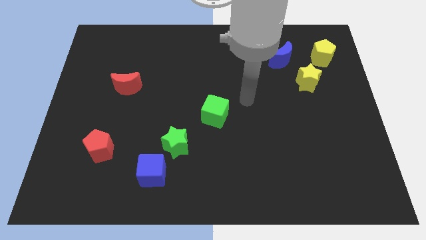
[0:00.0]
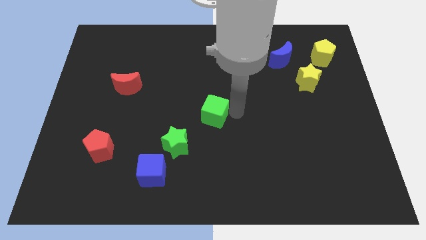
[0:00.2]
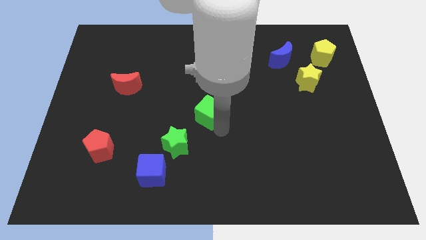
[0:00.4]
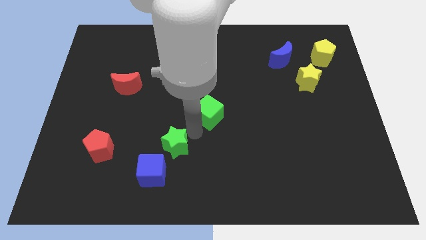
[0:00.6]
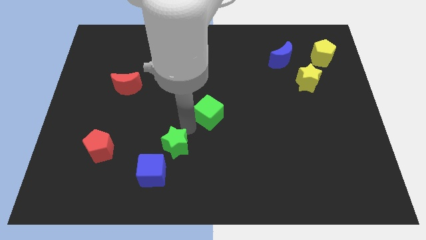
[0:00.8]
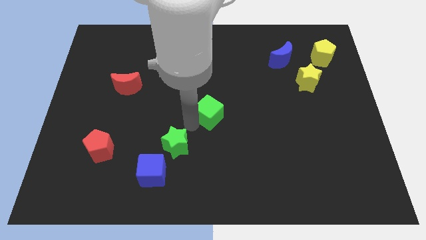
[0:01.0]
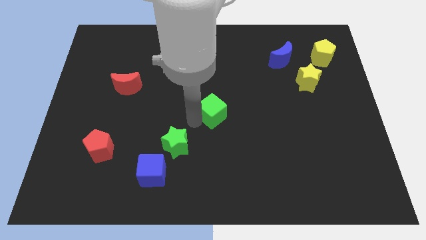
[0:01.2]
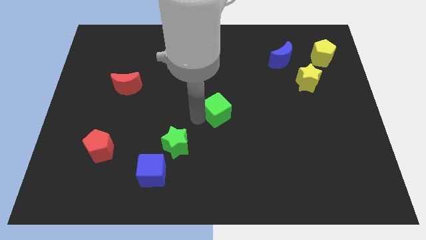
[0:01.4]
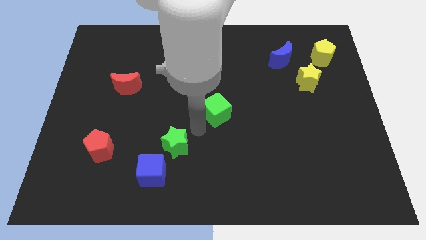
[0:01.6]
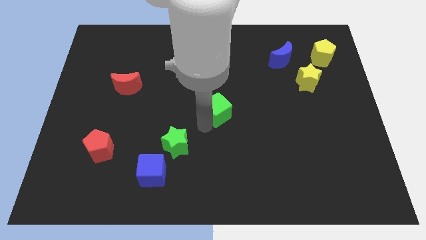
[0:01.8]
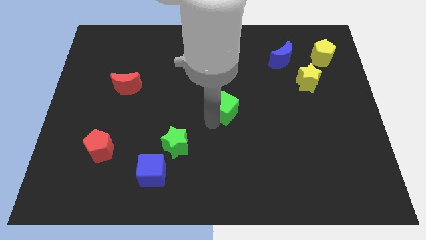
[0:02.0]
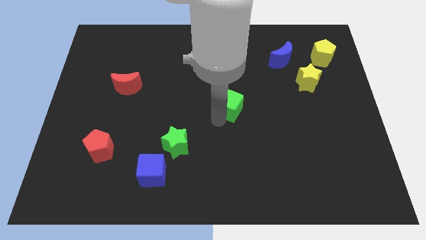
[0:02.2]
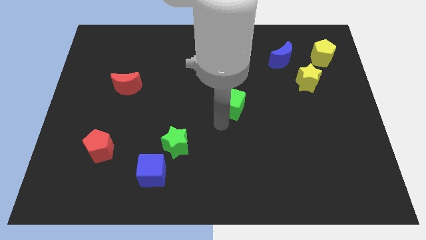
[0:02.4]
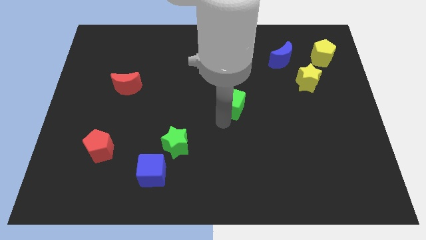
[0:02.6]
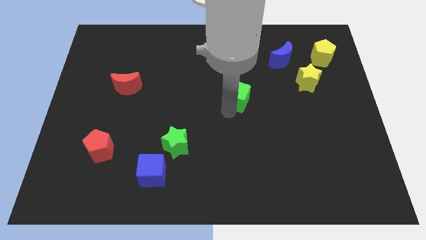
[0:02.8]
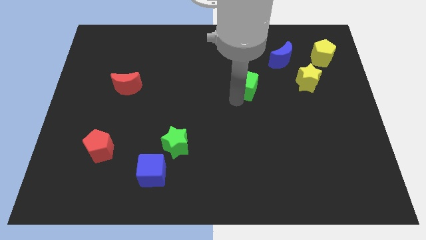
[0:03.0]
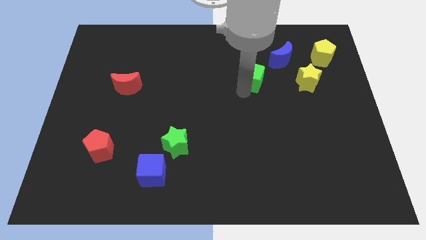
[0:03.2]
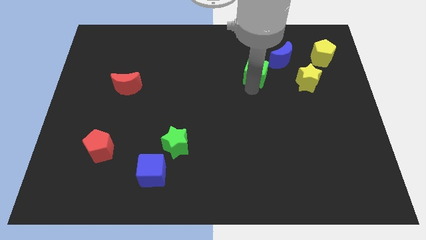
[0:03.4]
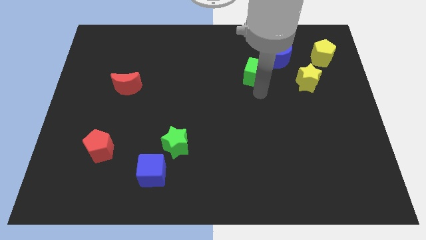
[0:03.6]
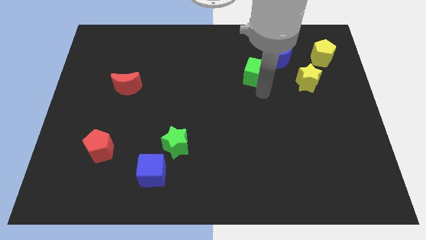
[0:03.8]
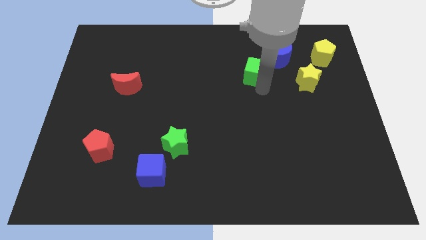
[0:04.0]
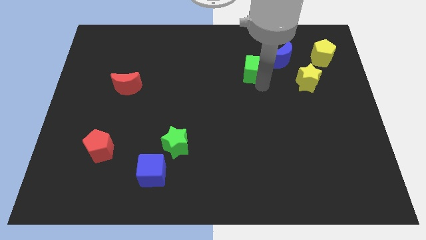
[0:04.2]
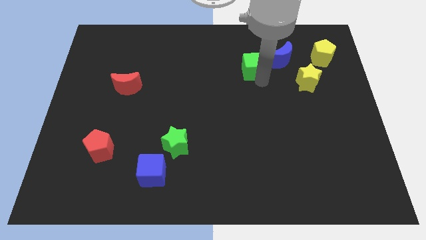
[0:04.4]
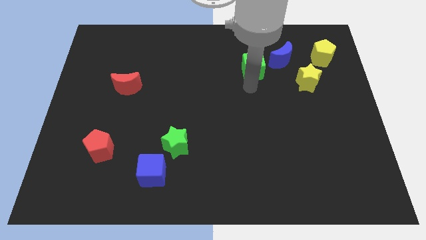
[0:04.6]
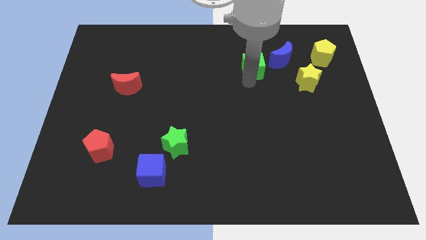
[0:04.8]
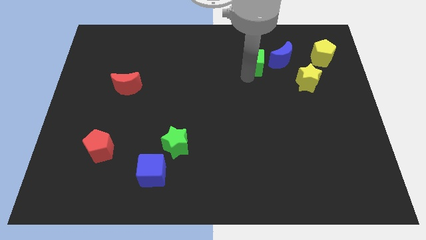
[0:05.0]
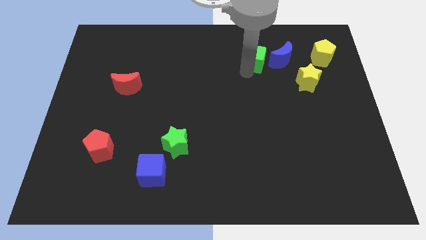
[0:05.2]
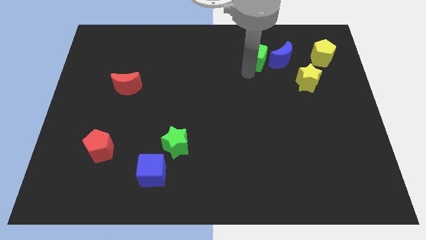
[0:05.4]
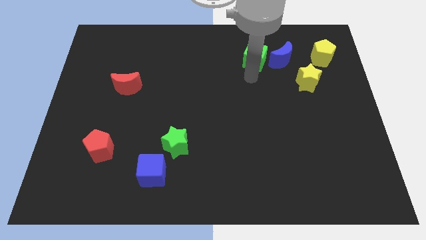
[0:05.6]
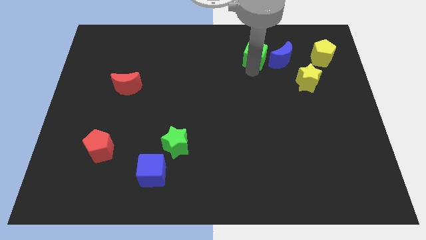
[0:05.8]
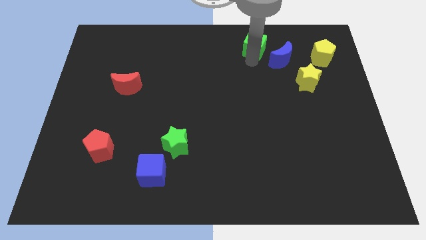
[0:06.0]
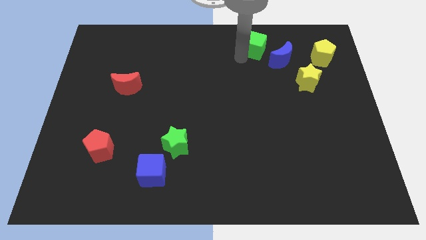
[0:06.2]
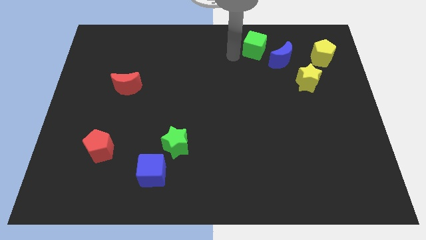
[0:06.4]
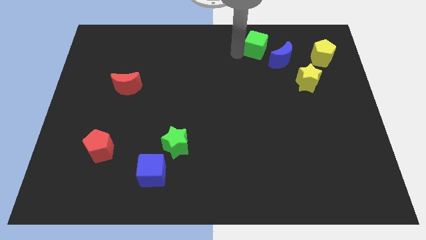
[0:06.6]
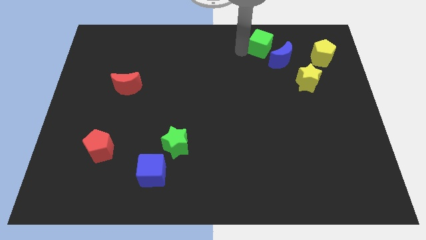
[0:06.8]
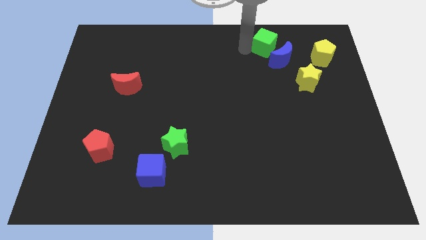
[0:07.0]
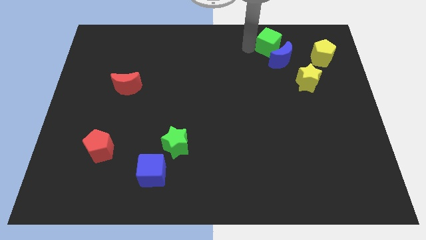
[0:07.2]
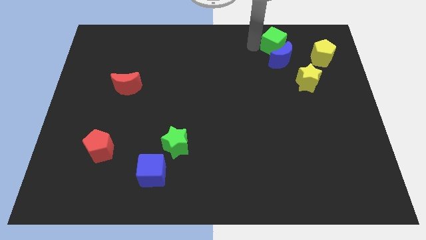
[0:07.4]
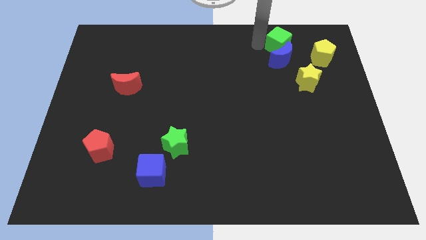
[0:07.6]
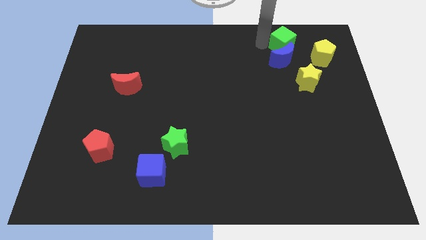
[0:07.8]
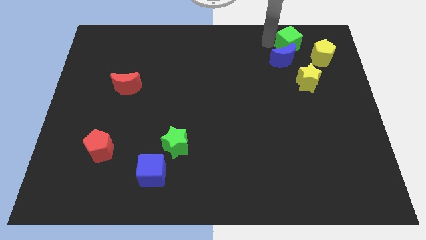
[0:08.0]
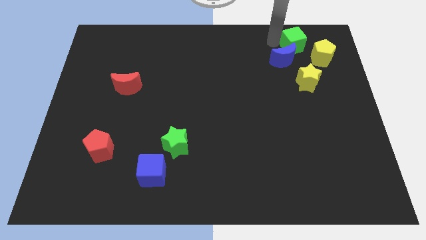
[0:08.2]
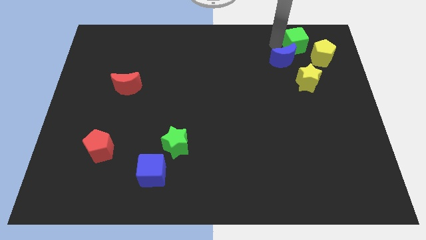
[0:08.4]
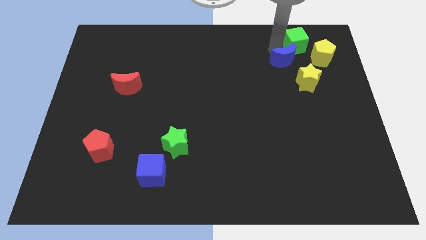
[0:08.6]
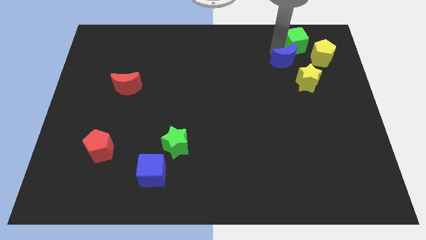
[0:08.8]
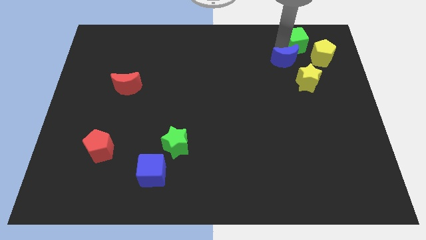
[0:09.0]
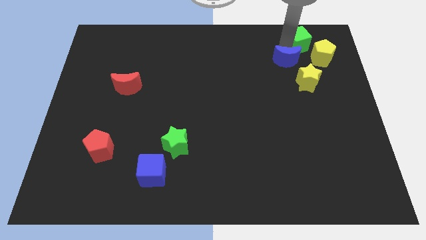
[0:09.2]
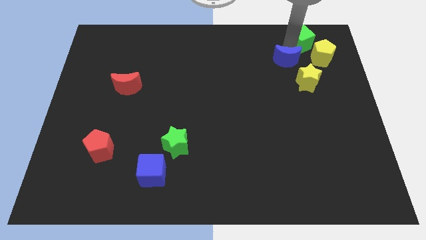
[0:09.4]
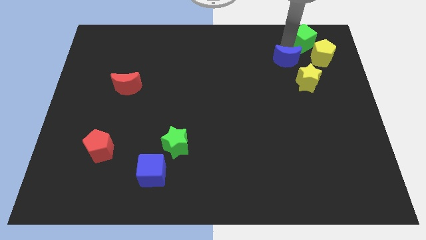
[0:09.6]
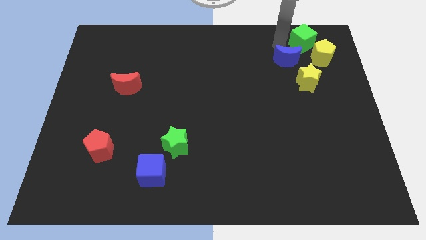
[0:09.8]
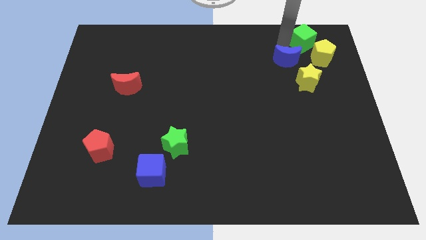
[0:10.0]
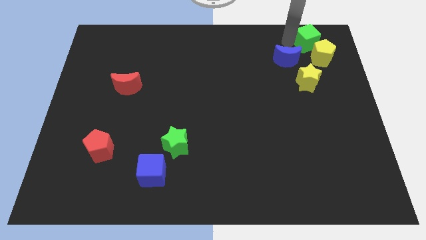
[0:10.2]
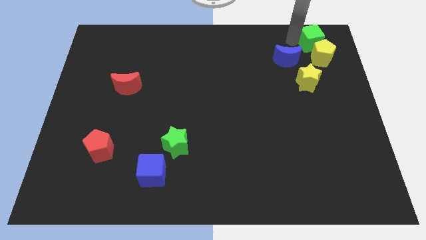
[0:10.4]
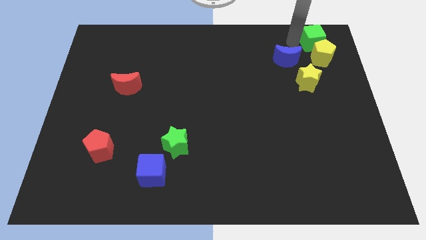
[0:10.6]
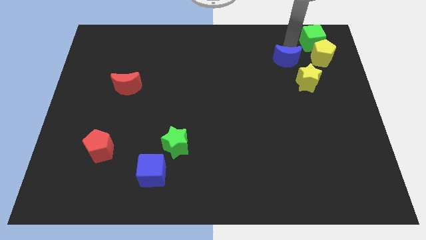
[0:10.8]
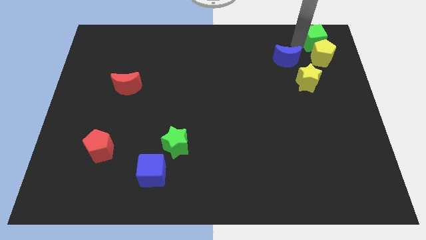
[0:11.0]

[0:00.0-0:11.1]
move the green cube to the top right

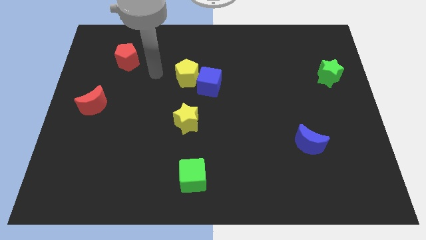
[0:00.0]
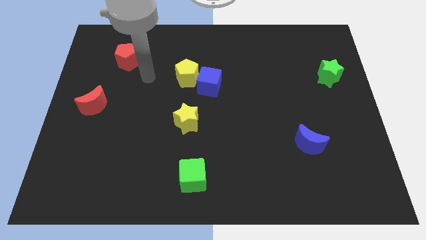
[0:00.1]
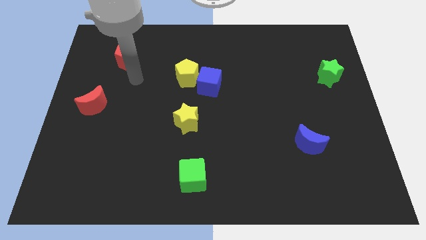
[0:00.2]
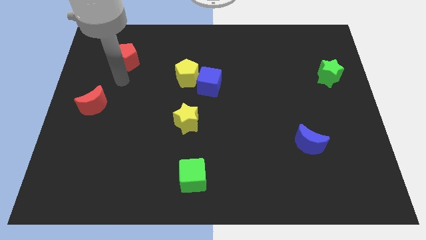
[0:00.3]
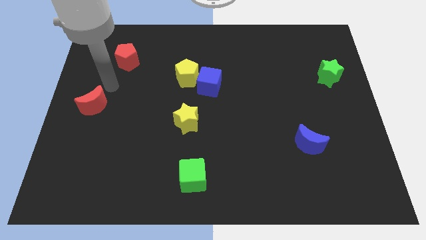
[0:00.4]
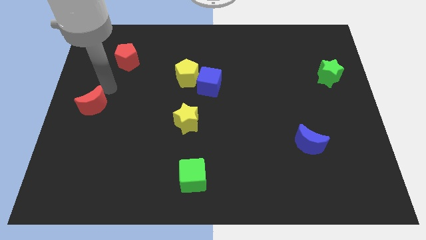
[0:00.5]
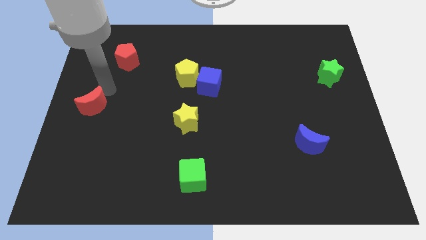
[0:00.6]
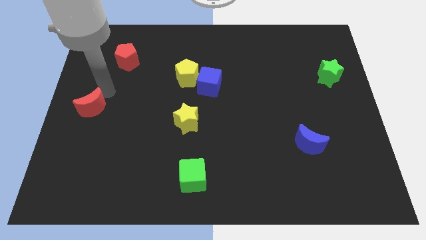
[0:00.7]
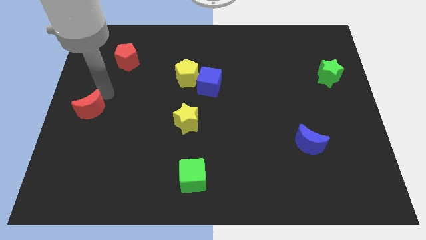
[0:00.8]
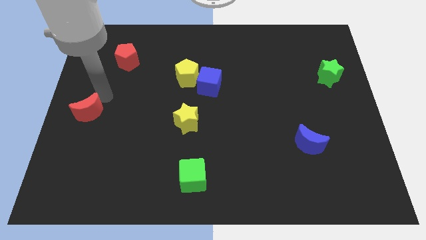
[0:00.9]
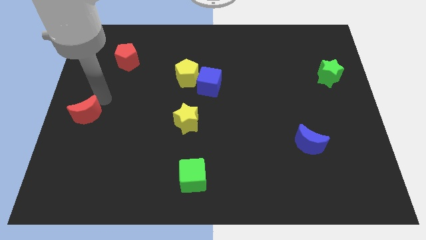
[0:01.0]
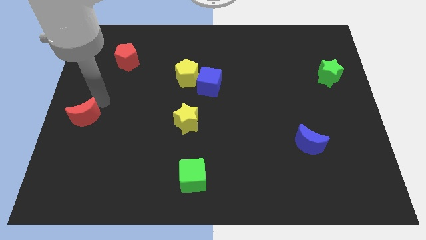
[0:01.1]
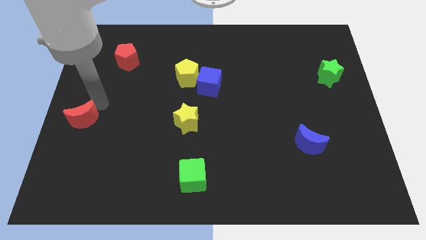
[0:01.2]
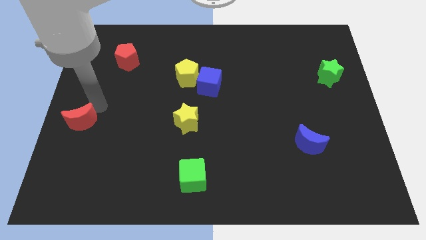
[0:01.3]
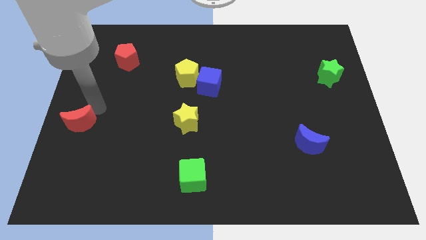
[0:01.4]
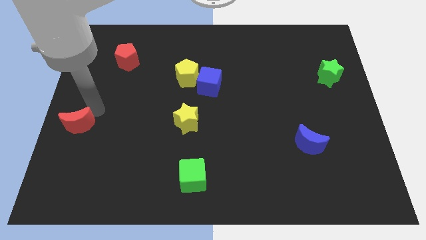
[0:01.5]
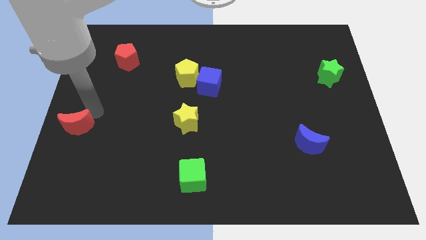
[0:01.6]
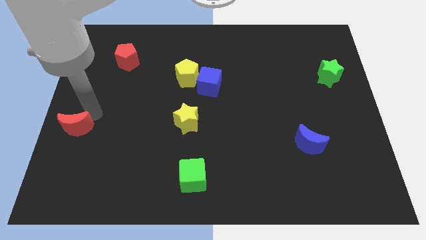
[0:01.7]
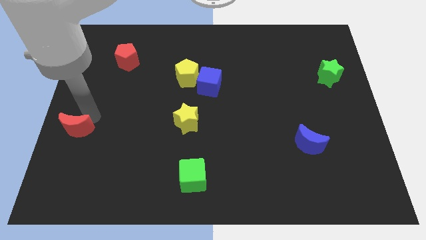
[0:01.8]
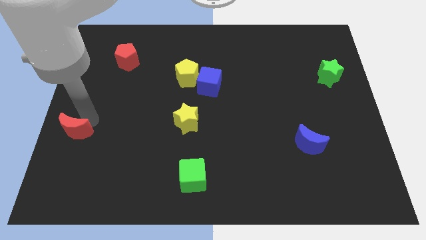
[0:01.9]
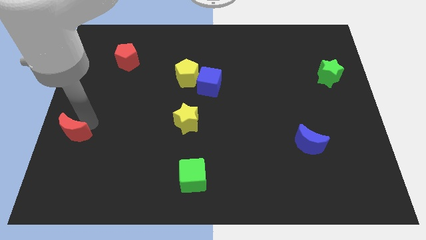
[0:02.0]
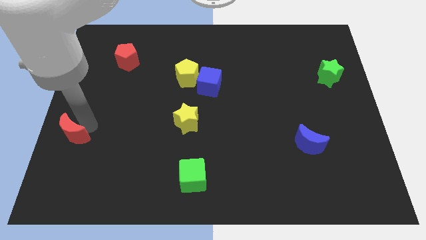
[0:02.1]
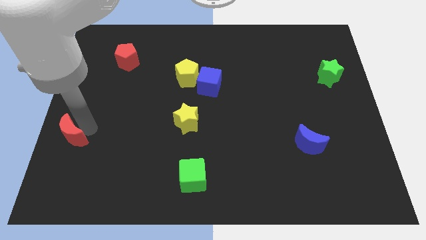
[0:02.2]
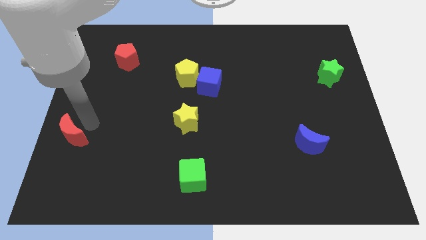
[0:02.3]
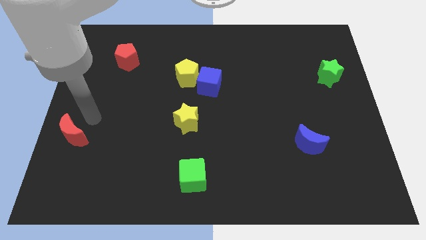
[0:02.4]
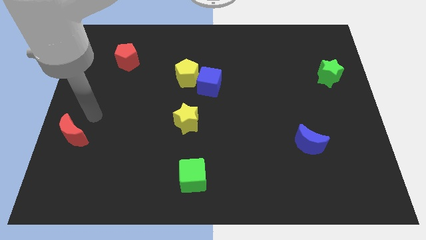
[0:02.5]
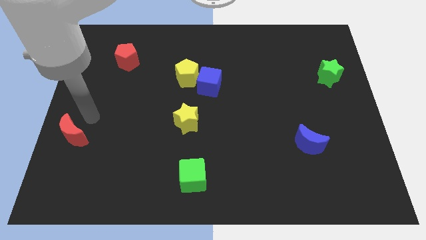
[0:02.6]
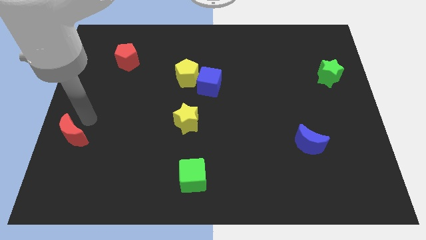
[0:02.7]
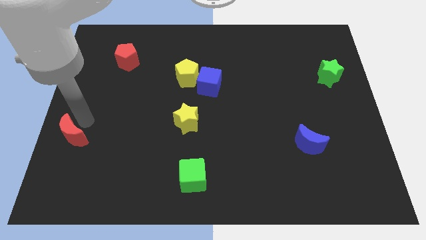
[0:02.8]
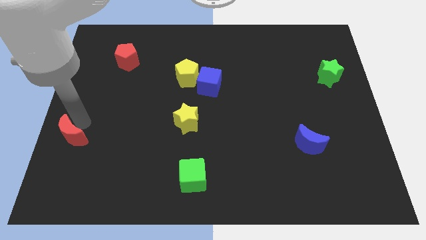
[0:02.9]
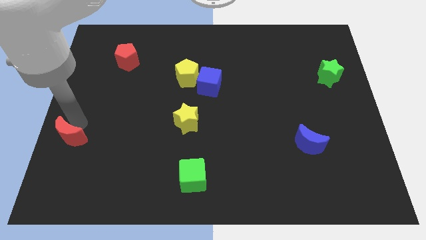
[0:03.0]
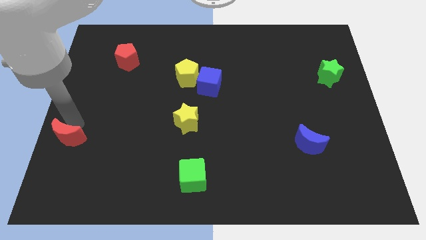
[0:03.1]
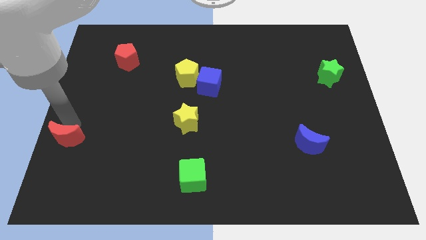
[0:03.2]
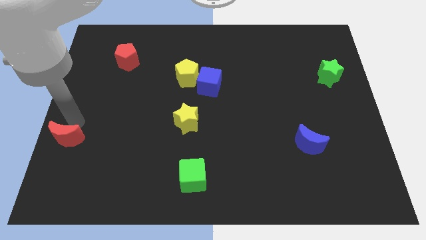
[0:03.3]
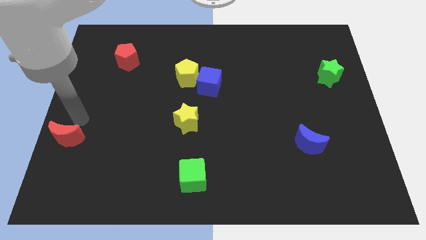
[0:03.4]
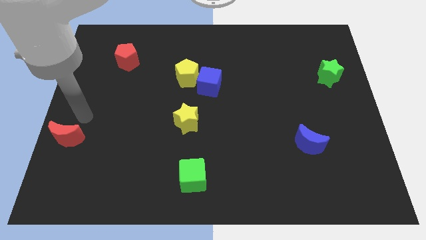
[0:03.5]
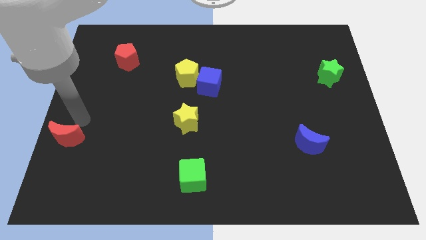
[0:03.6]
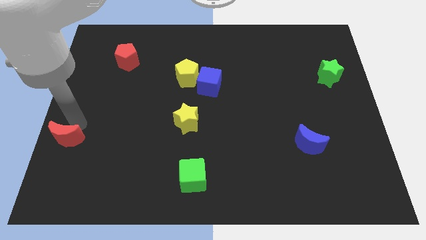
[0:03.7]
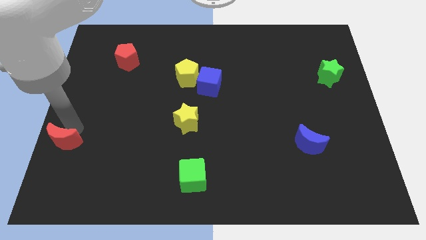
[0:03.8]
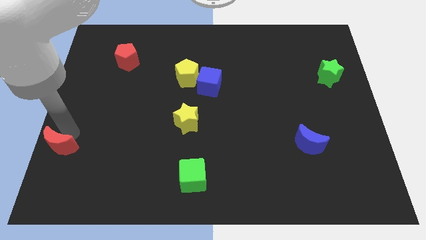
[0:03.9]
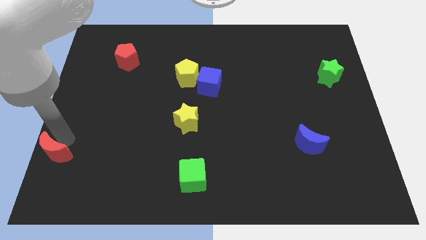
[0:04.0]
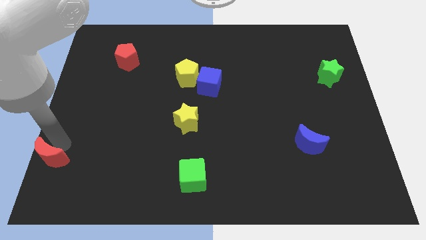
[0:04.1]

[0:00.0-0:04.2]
put the red moon to the bottom left corner
